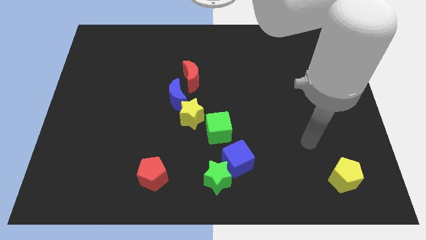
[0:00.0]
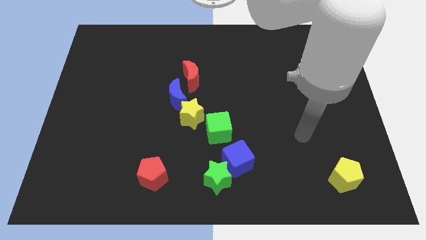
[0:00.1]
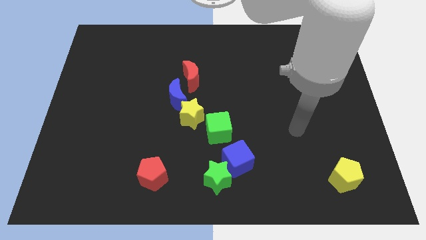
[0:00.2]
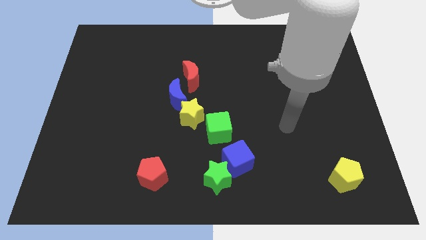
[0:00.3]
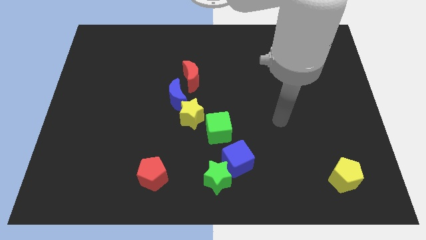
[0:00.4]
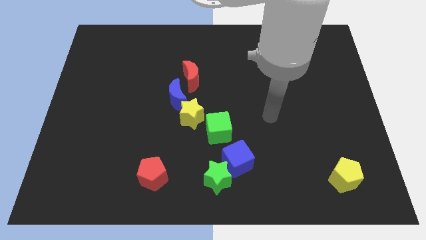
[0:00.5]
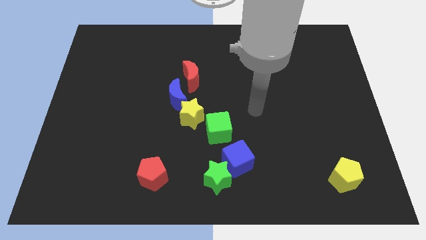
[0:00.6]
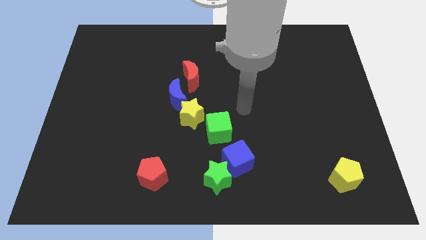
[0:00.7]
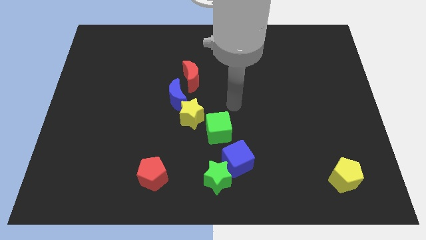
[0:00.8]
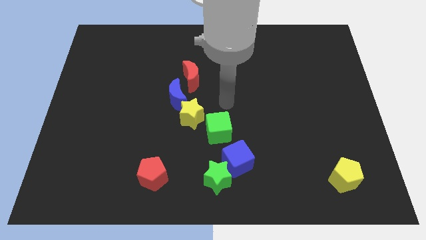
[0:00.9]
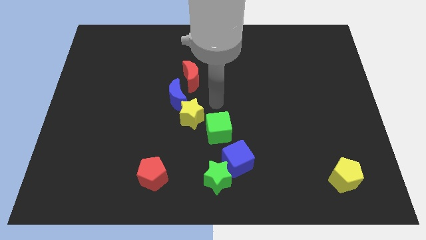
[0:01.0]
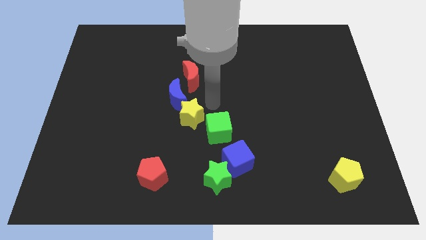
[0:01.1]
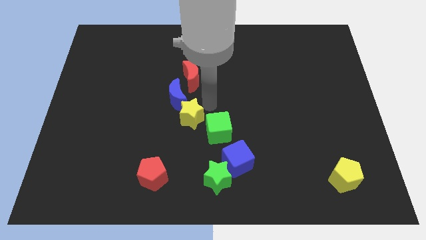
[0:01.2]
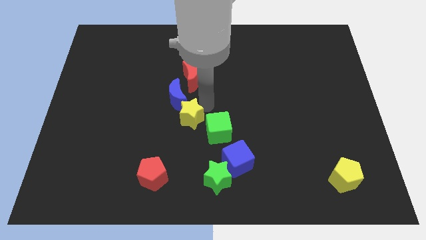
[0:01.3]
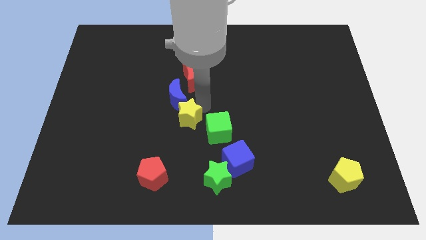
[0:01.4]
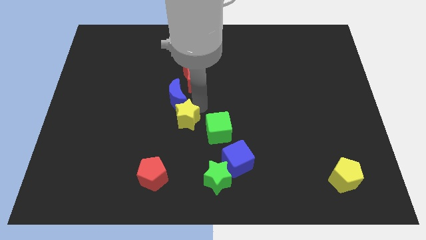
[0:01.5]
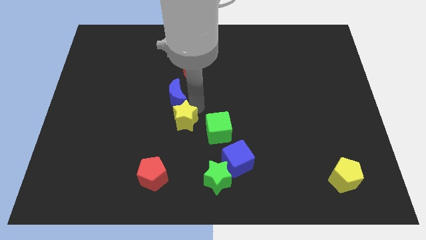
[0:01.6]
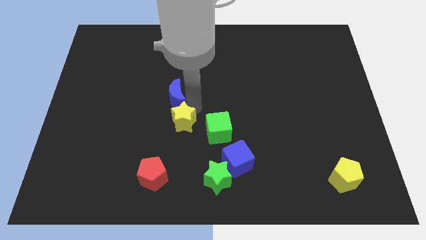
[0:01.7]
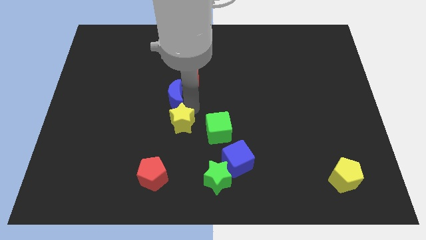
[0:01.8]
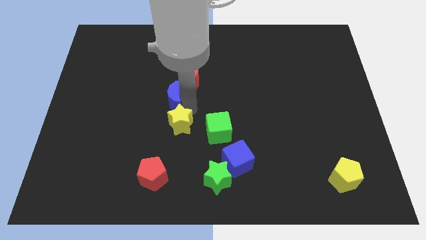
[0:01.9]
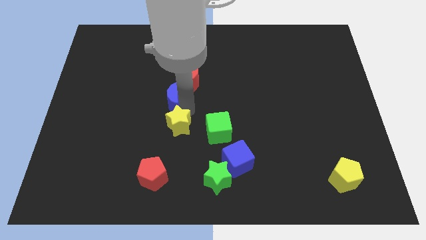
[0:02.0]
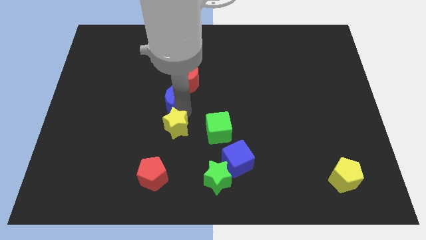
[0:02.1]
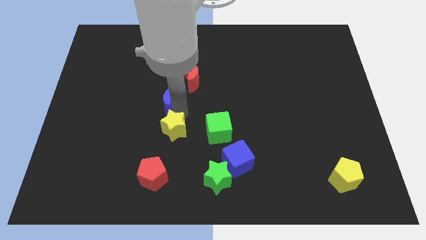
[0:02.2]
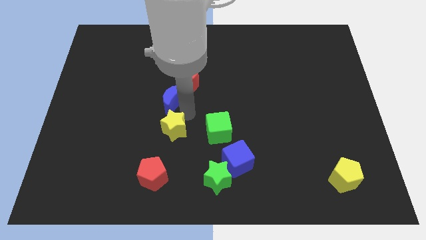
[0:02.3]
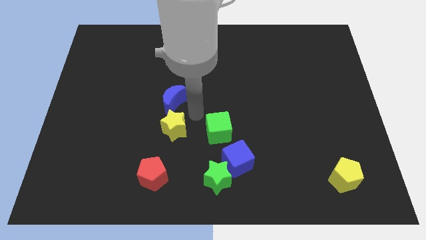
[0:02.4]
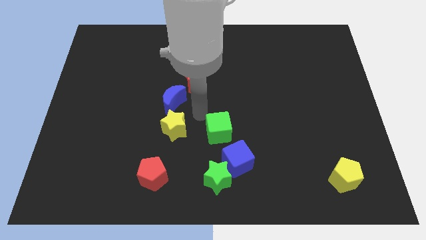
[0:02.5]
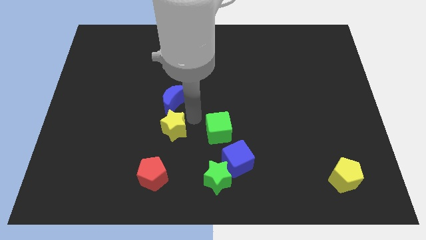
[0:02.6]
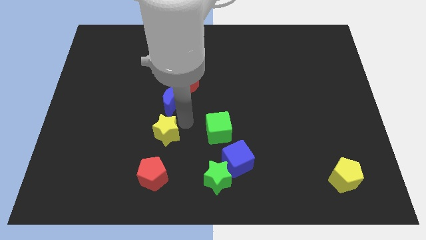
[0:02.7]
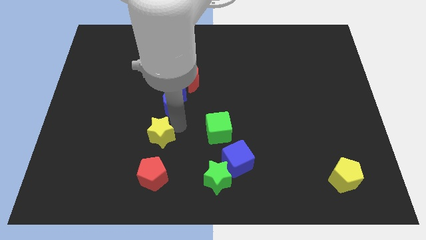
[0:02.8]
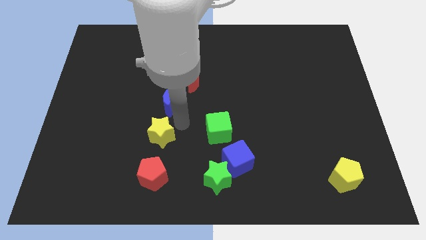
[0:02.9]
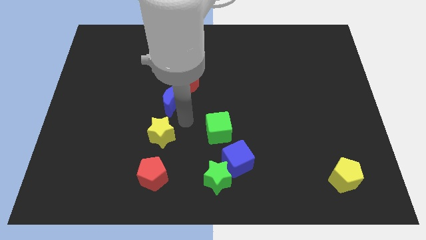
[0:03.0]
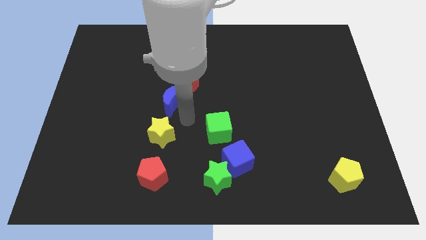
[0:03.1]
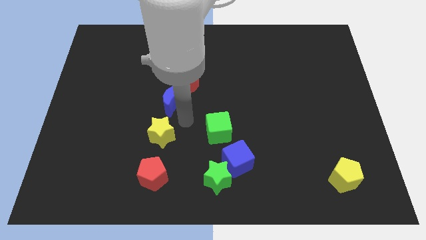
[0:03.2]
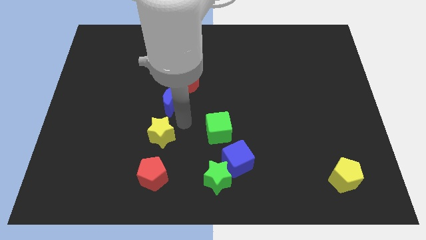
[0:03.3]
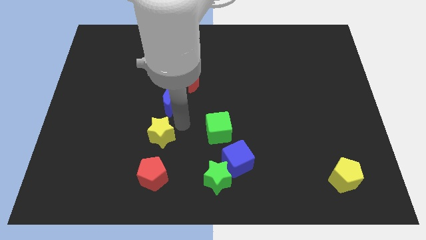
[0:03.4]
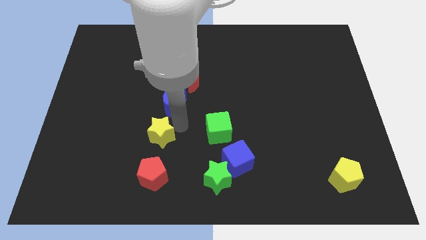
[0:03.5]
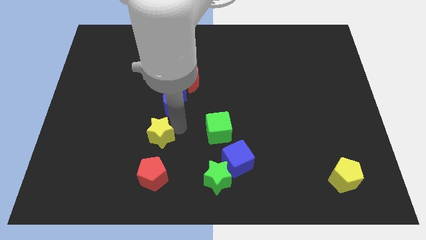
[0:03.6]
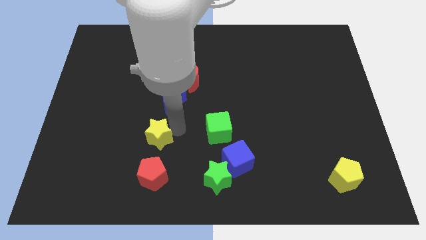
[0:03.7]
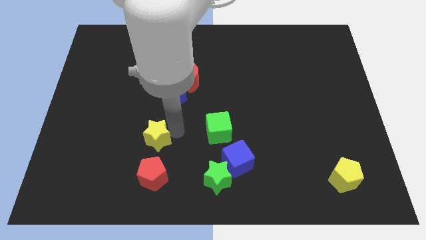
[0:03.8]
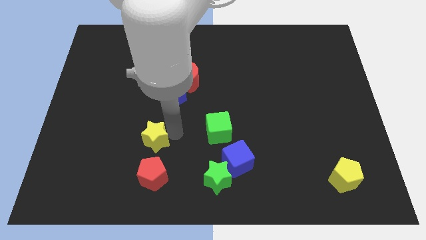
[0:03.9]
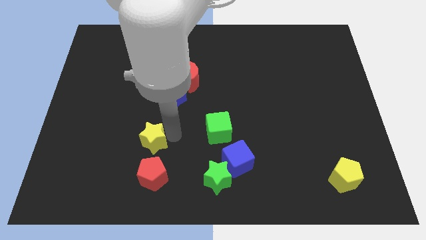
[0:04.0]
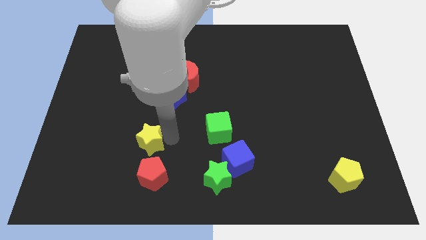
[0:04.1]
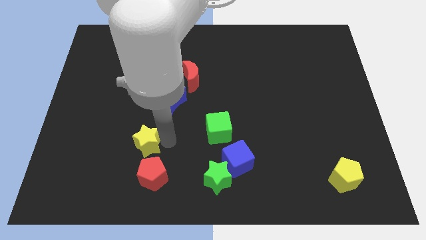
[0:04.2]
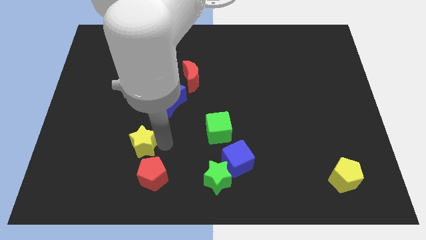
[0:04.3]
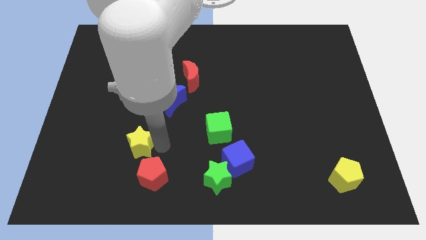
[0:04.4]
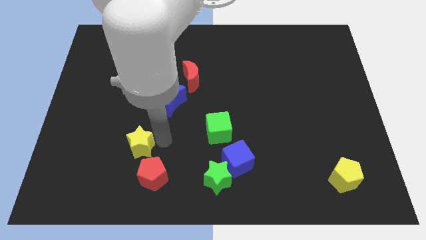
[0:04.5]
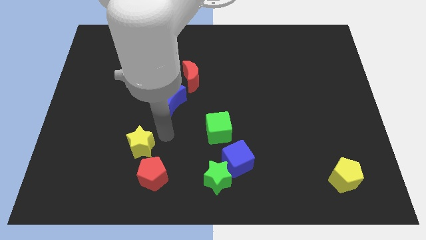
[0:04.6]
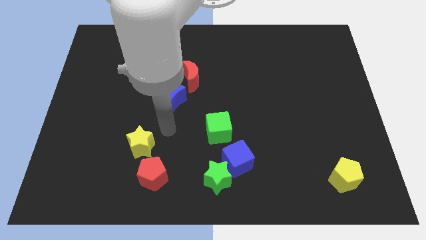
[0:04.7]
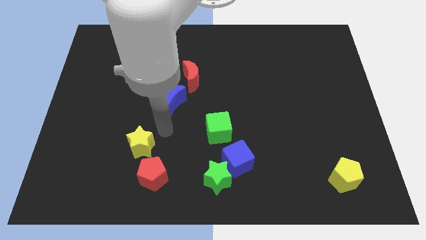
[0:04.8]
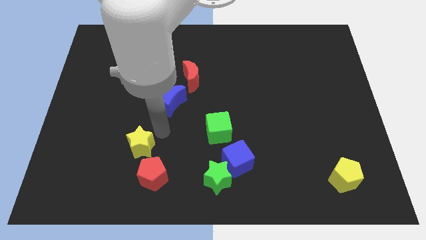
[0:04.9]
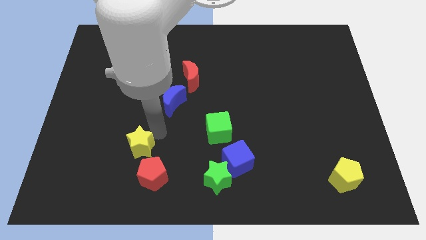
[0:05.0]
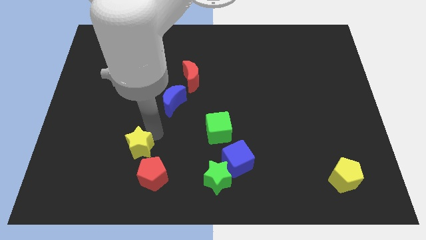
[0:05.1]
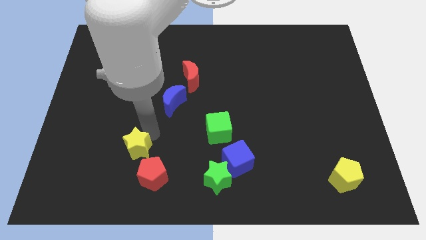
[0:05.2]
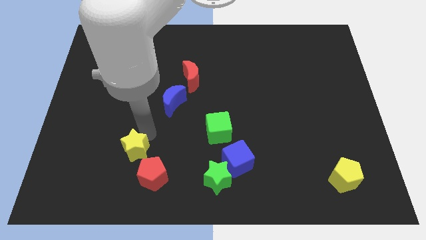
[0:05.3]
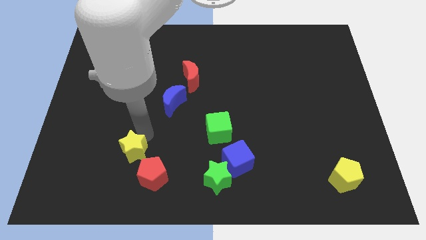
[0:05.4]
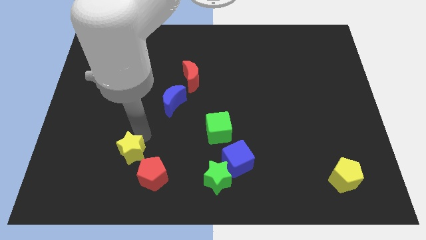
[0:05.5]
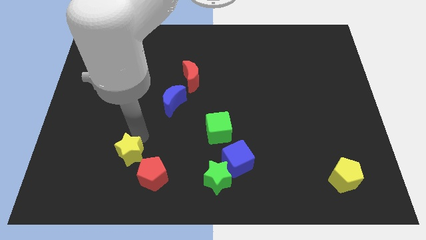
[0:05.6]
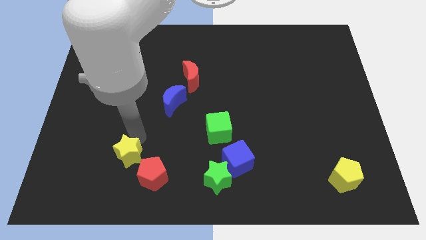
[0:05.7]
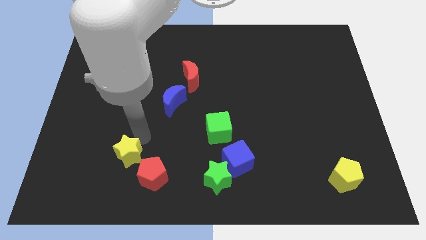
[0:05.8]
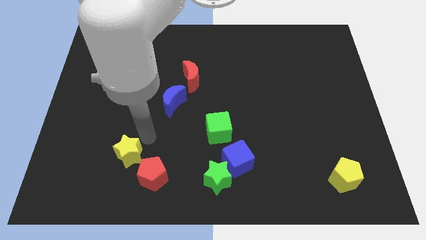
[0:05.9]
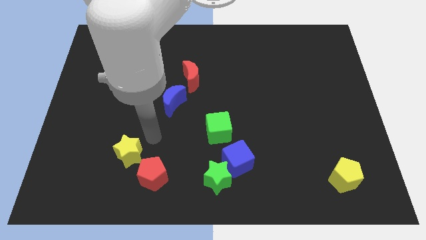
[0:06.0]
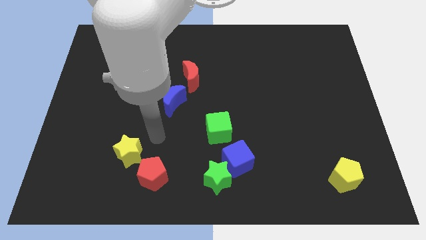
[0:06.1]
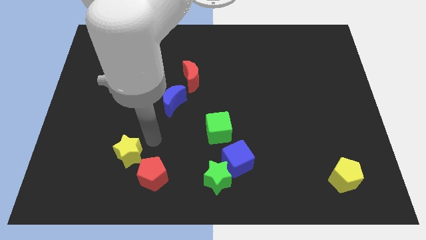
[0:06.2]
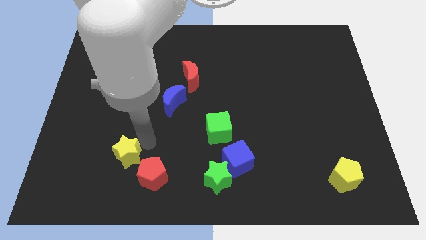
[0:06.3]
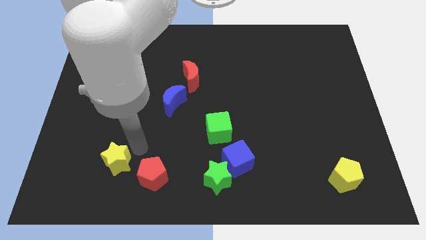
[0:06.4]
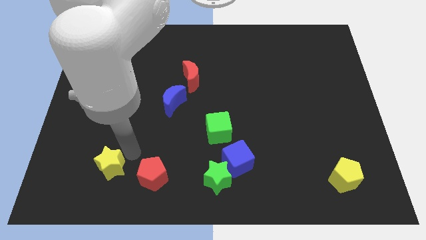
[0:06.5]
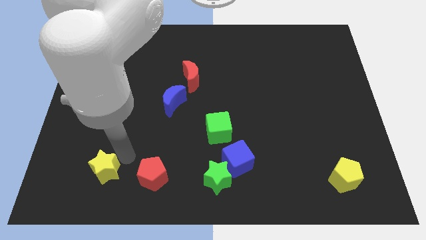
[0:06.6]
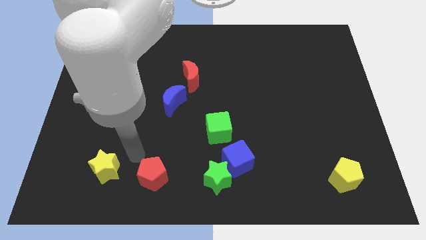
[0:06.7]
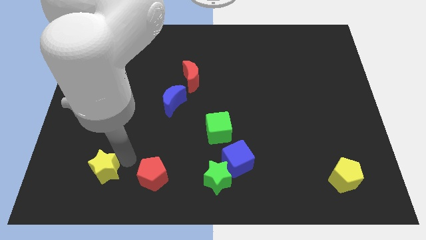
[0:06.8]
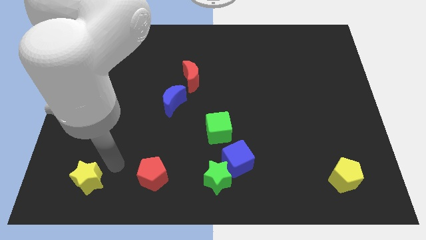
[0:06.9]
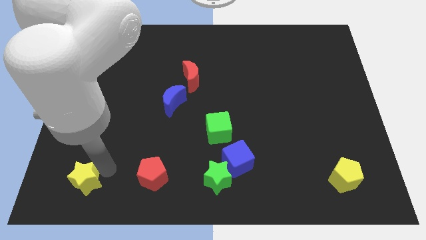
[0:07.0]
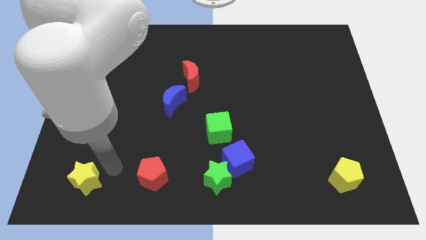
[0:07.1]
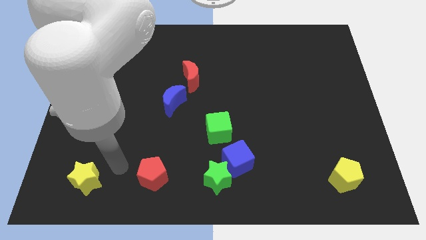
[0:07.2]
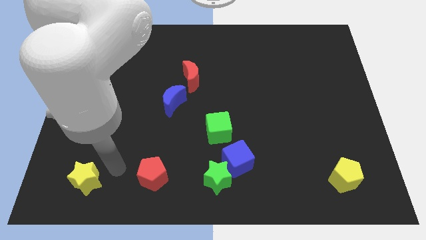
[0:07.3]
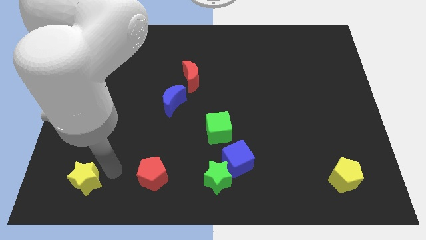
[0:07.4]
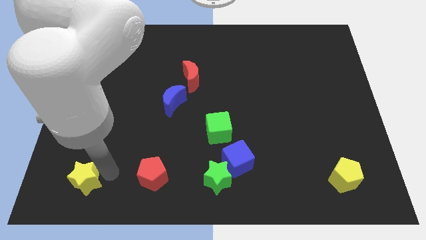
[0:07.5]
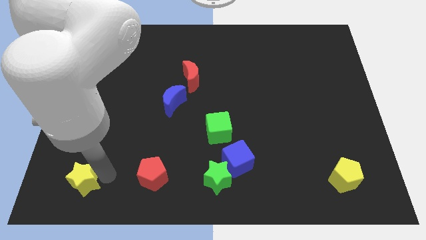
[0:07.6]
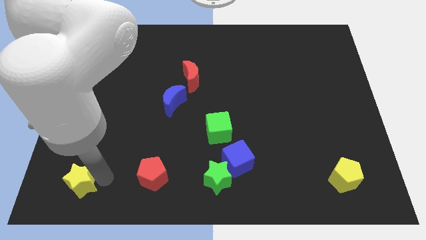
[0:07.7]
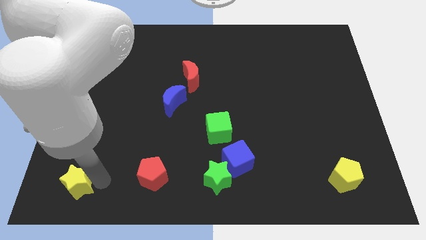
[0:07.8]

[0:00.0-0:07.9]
put the yellow star to the bottom left corner
